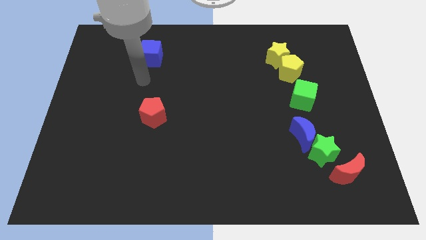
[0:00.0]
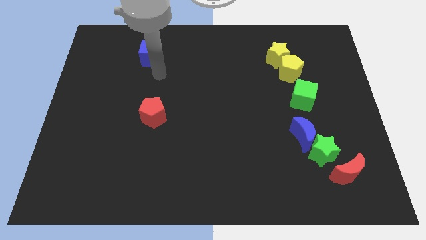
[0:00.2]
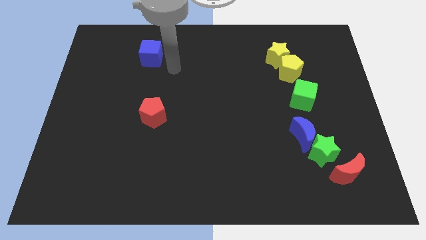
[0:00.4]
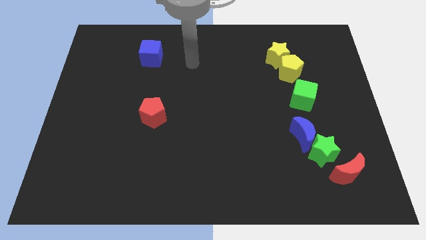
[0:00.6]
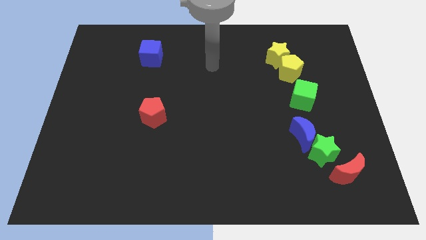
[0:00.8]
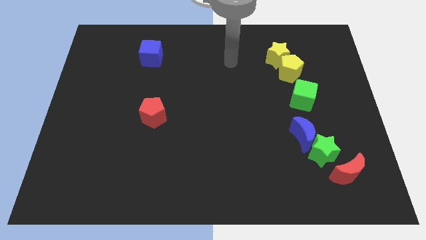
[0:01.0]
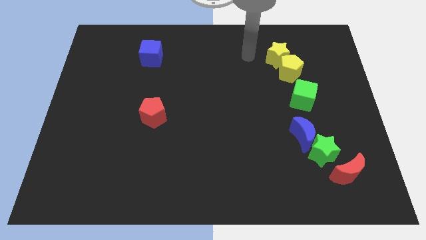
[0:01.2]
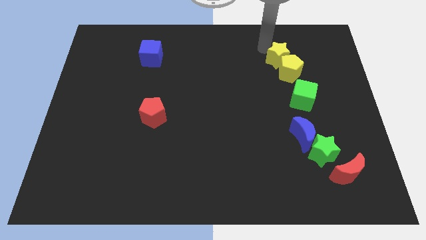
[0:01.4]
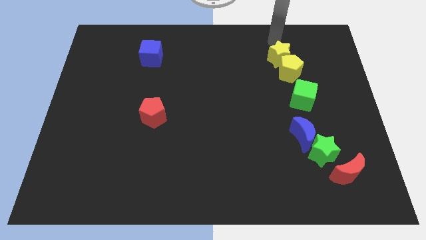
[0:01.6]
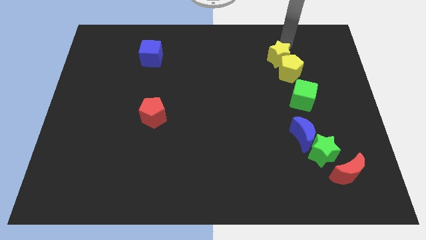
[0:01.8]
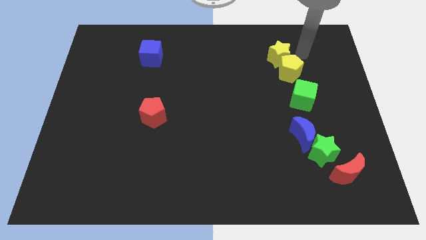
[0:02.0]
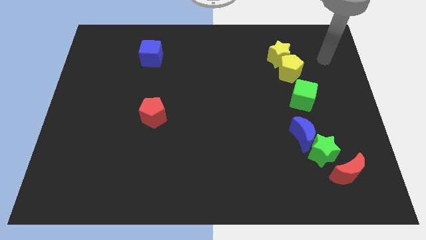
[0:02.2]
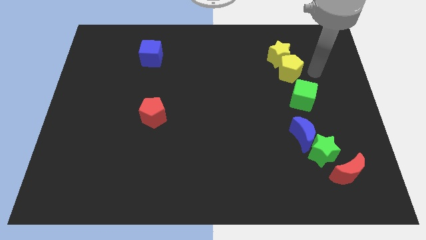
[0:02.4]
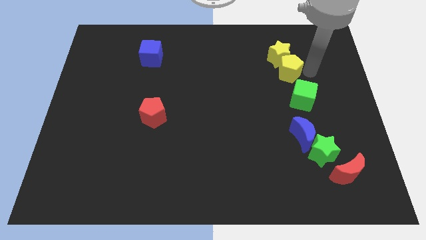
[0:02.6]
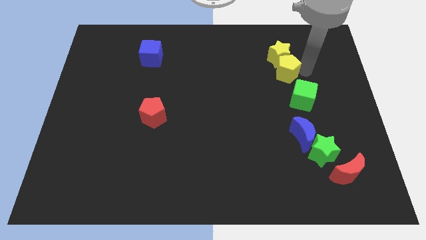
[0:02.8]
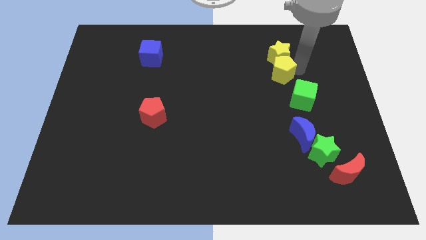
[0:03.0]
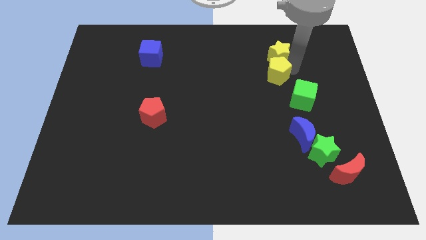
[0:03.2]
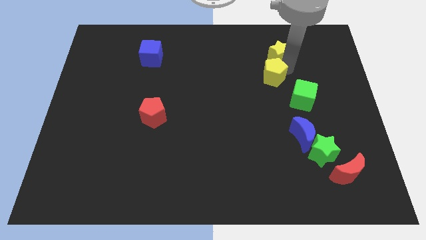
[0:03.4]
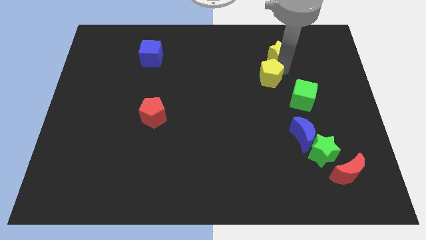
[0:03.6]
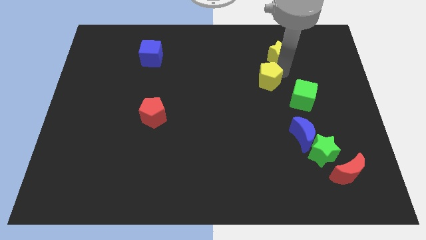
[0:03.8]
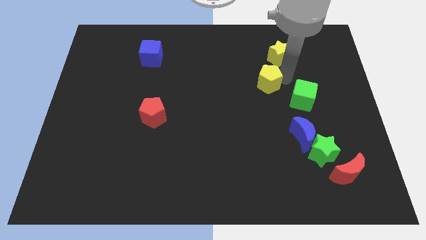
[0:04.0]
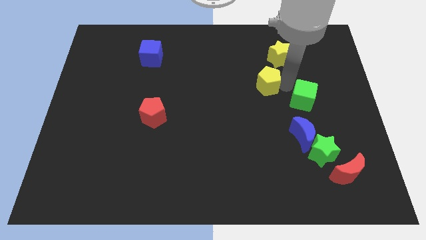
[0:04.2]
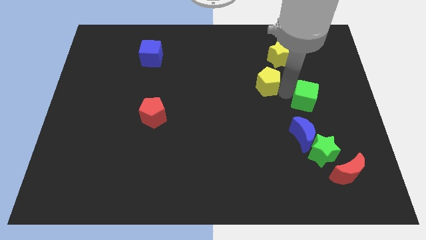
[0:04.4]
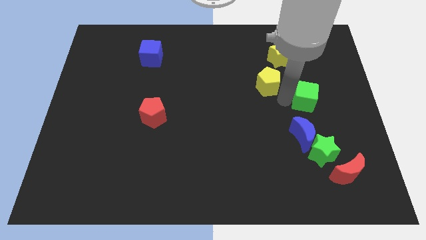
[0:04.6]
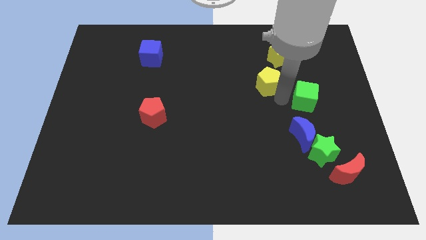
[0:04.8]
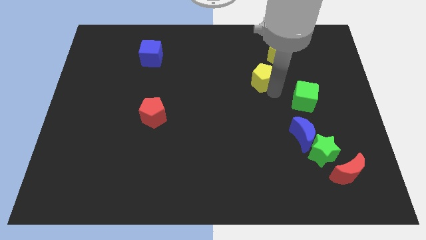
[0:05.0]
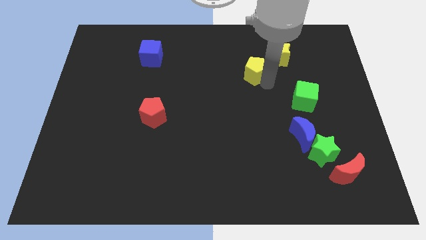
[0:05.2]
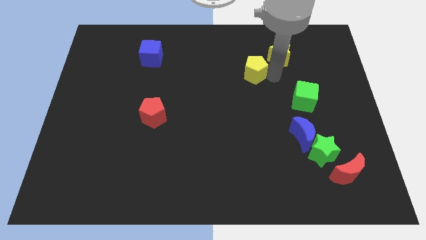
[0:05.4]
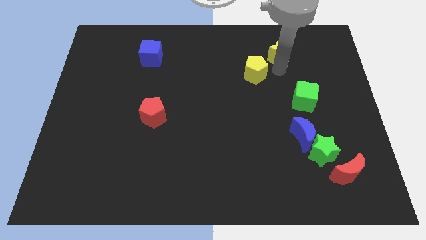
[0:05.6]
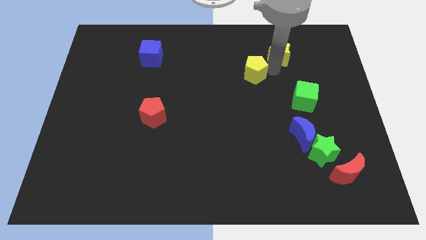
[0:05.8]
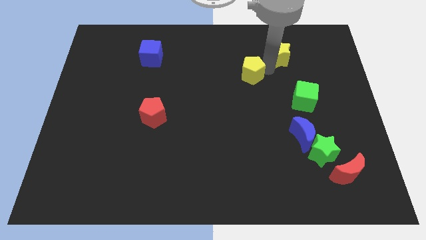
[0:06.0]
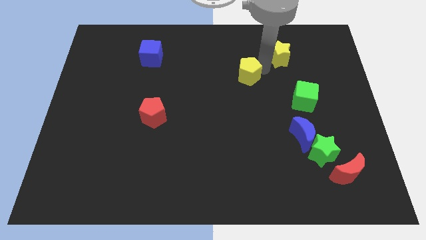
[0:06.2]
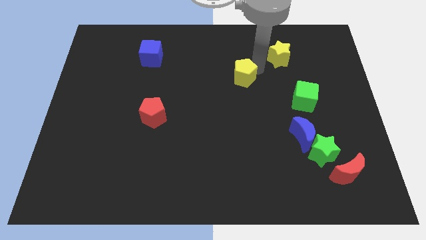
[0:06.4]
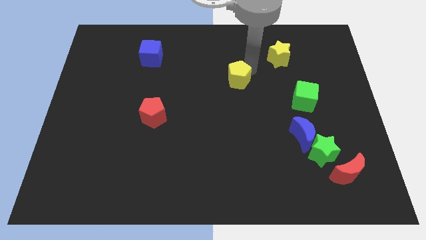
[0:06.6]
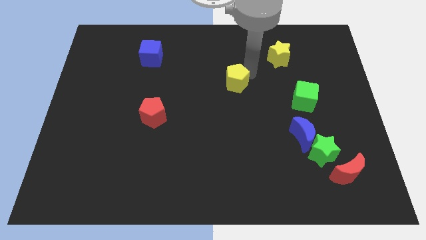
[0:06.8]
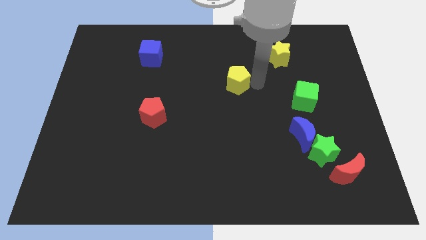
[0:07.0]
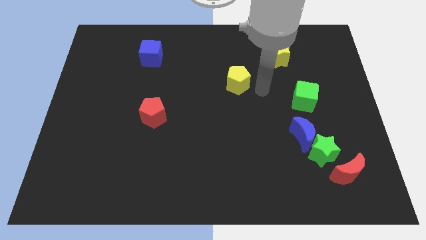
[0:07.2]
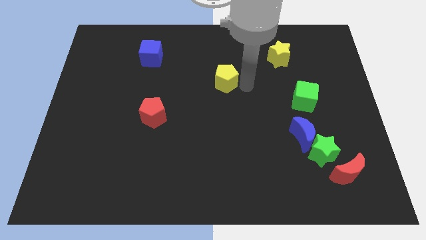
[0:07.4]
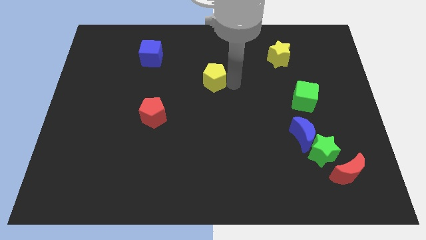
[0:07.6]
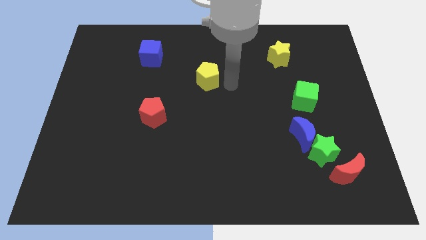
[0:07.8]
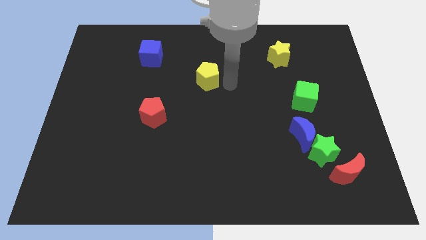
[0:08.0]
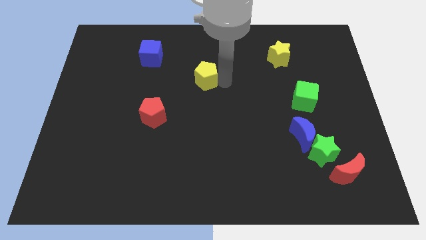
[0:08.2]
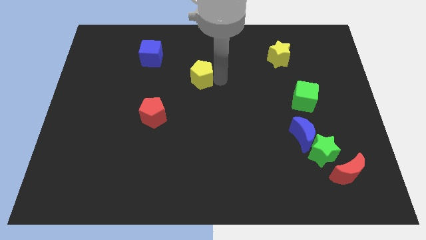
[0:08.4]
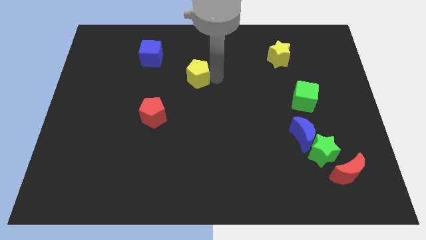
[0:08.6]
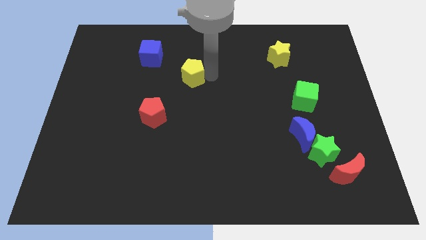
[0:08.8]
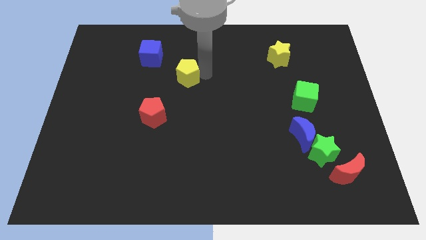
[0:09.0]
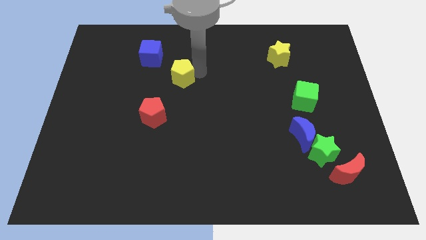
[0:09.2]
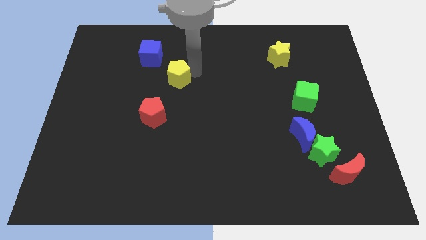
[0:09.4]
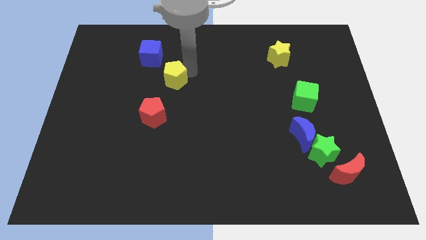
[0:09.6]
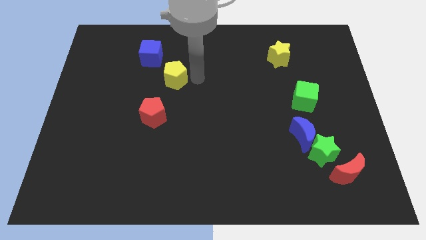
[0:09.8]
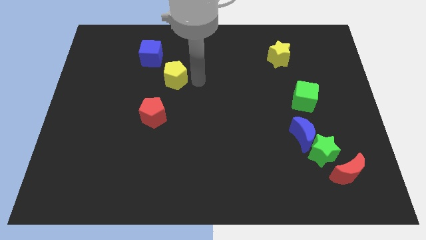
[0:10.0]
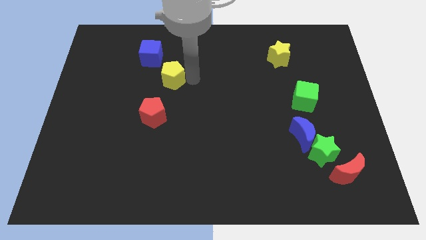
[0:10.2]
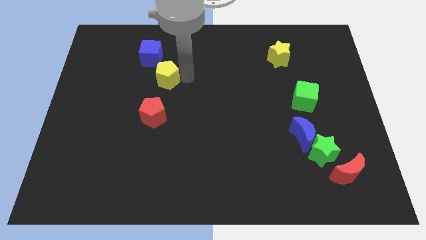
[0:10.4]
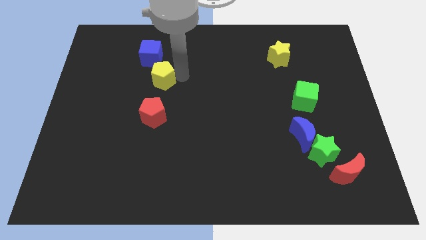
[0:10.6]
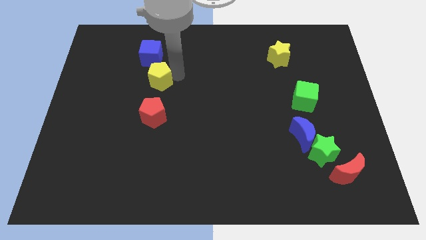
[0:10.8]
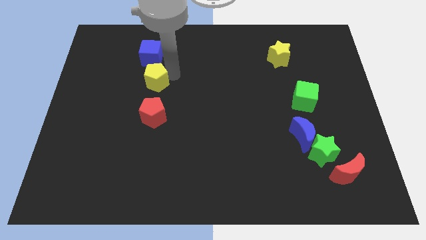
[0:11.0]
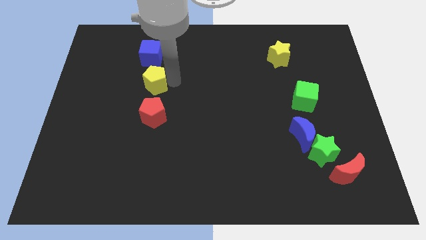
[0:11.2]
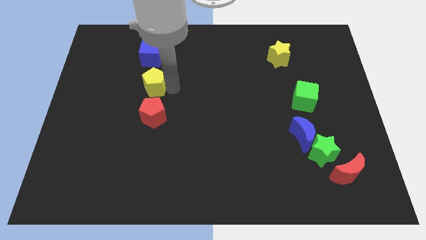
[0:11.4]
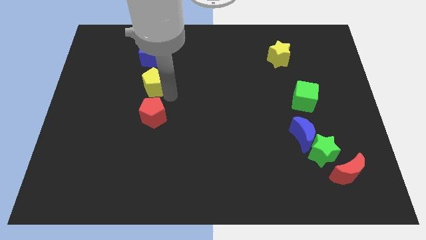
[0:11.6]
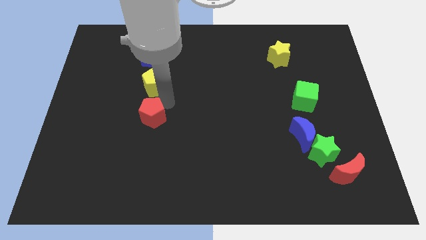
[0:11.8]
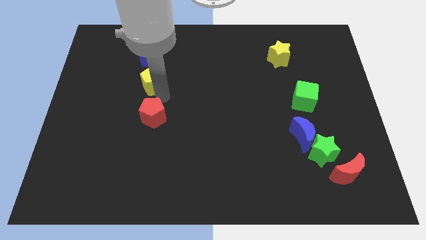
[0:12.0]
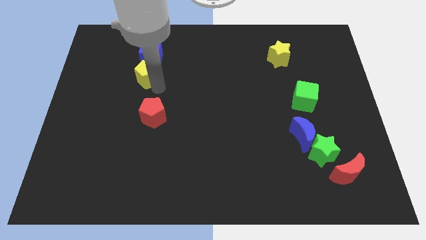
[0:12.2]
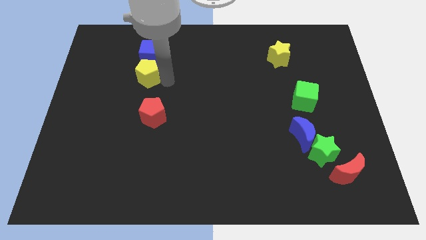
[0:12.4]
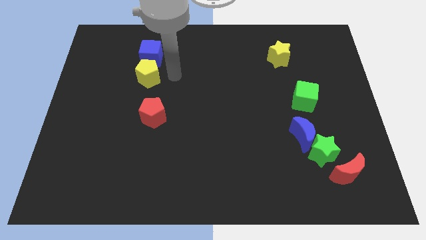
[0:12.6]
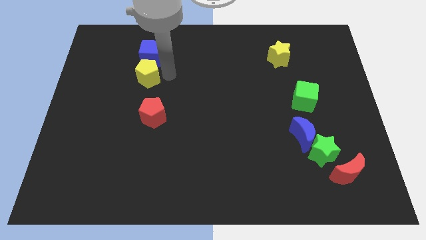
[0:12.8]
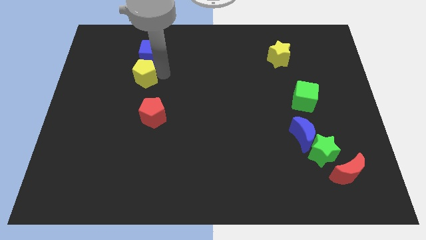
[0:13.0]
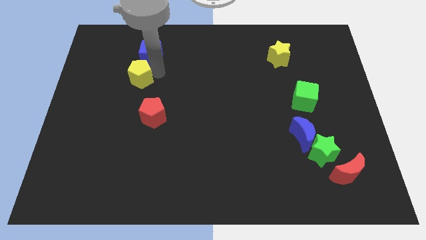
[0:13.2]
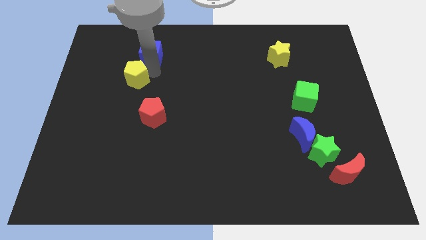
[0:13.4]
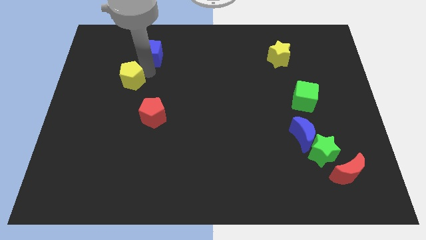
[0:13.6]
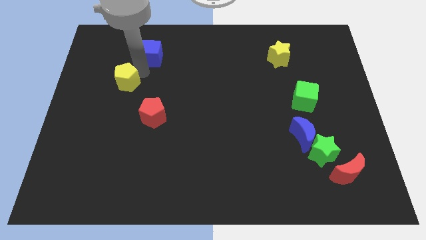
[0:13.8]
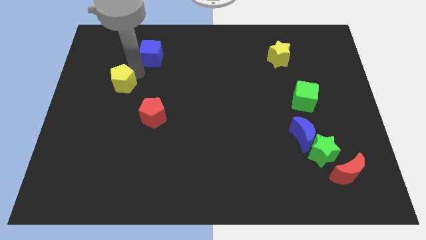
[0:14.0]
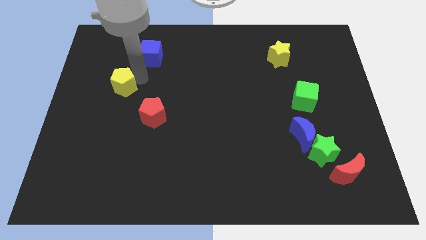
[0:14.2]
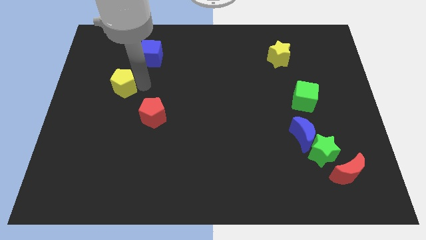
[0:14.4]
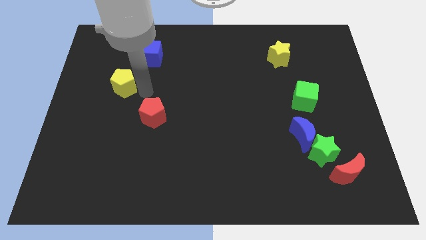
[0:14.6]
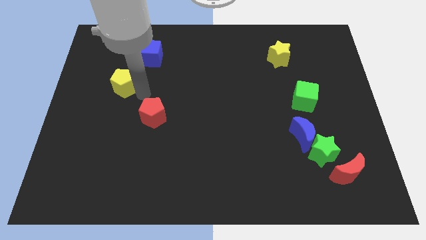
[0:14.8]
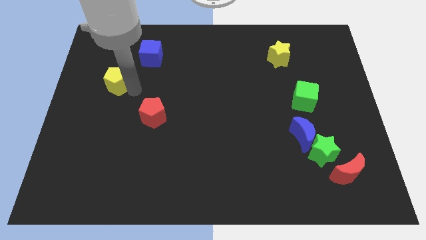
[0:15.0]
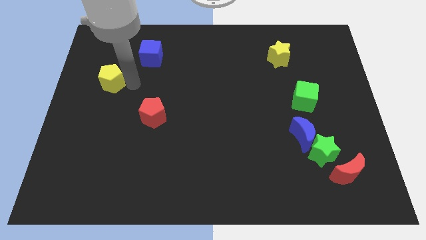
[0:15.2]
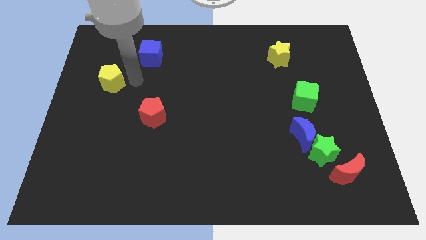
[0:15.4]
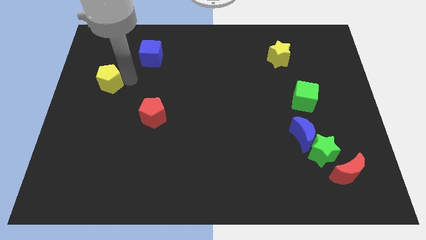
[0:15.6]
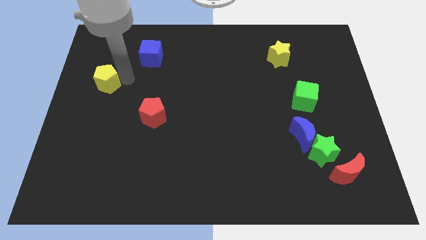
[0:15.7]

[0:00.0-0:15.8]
move the yellow pentagon to the left side of the board
